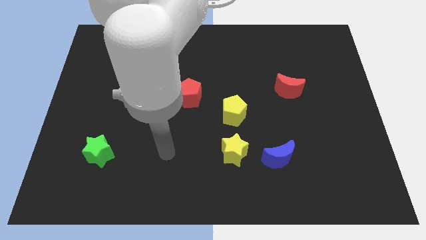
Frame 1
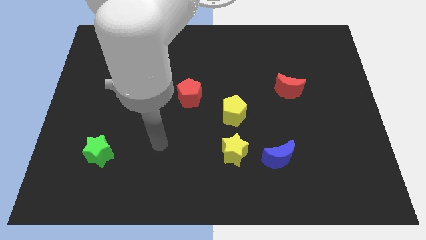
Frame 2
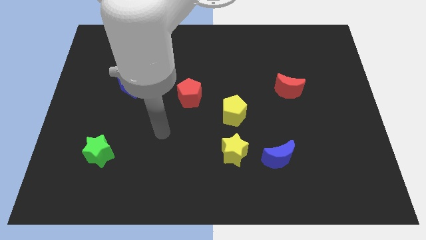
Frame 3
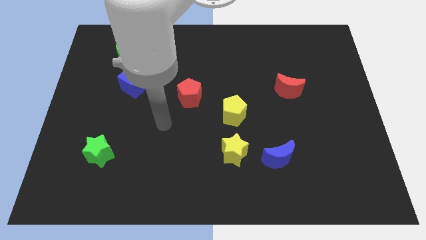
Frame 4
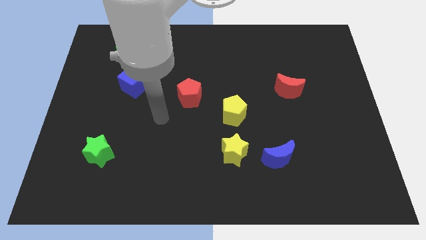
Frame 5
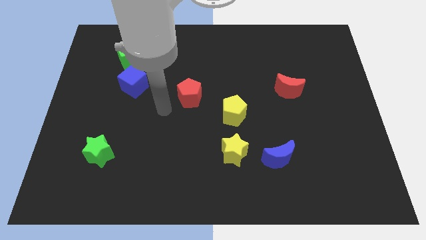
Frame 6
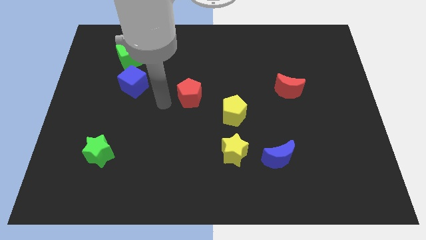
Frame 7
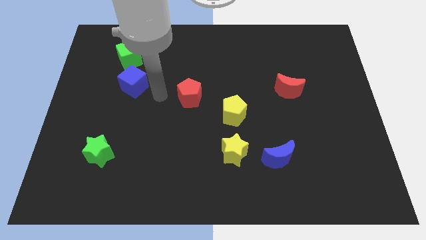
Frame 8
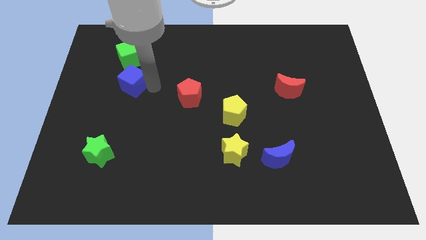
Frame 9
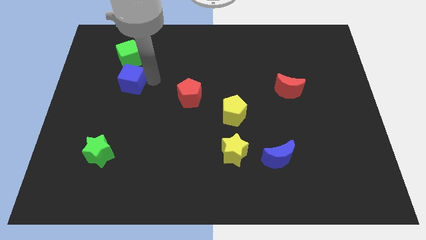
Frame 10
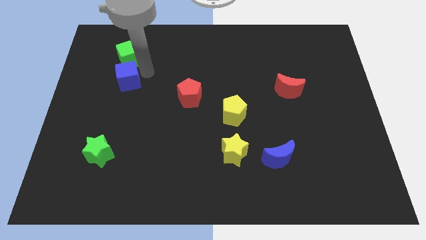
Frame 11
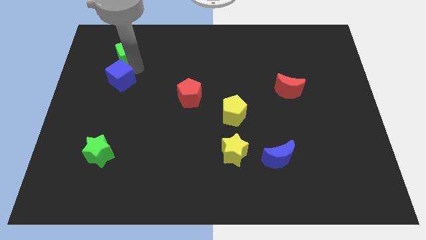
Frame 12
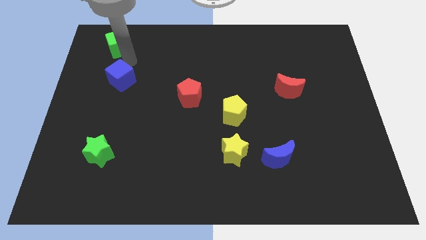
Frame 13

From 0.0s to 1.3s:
move the blue cube away from the green cube

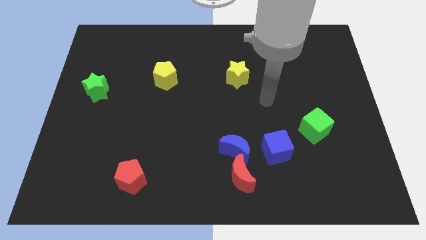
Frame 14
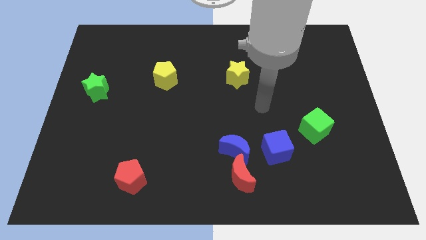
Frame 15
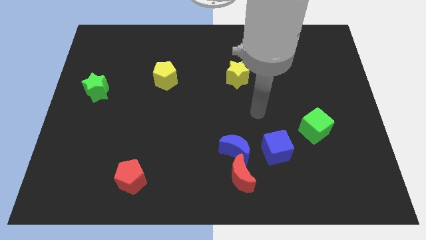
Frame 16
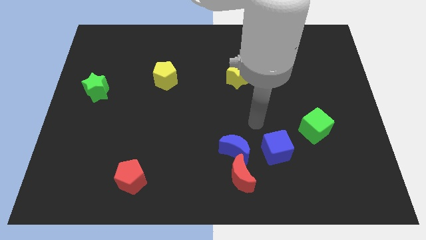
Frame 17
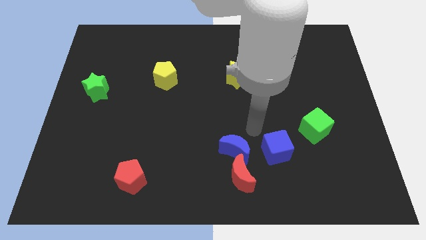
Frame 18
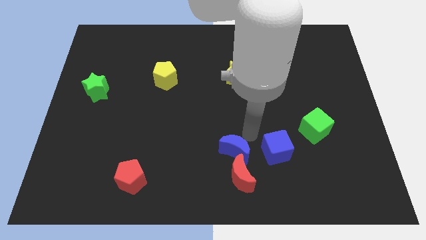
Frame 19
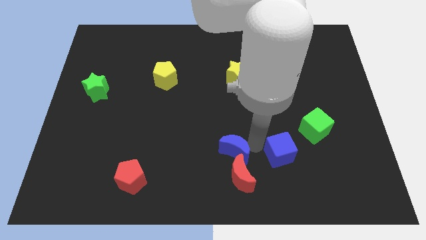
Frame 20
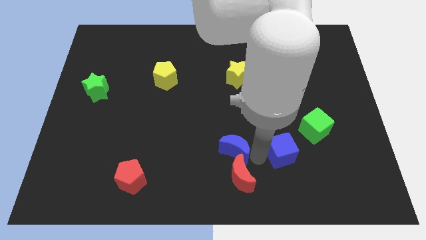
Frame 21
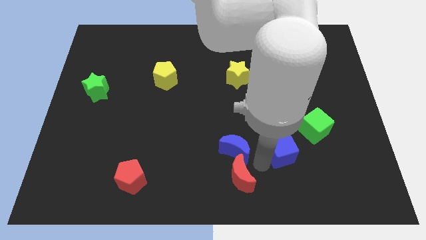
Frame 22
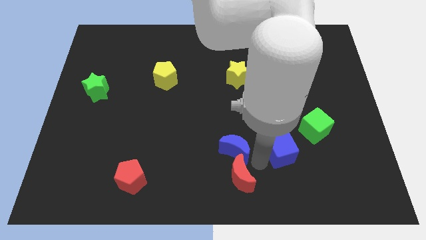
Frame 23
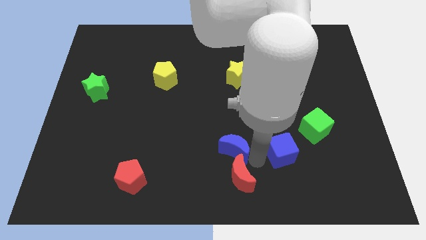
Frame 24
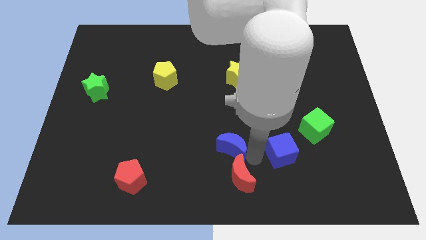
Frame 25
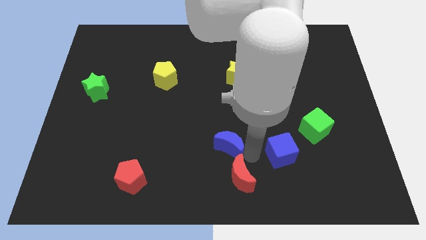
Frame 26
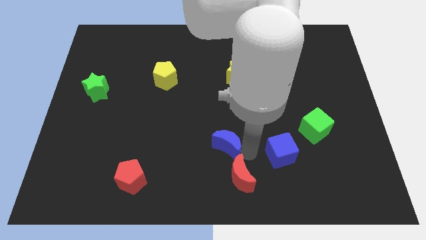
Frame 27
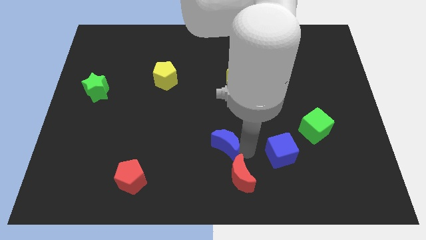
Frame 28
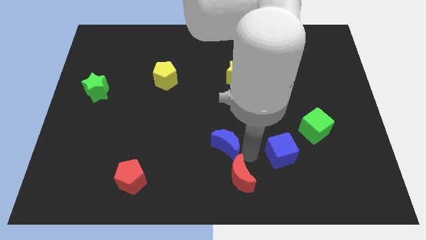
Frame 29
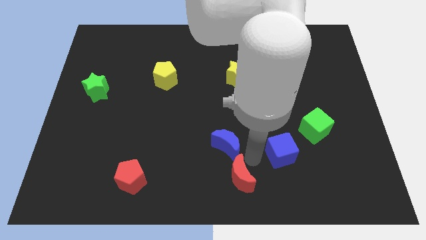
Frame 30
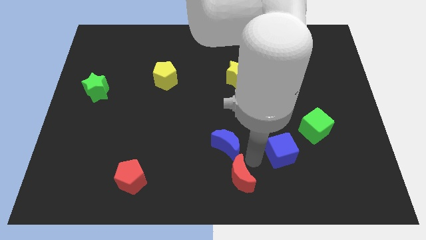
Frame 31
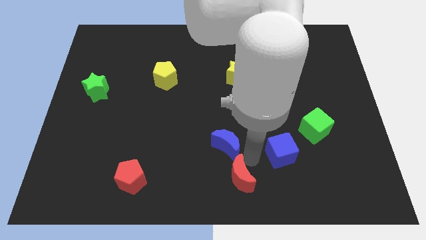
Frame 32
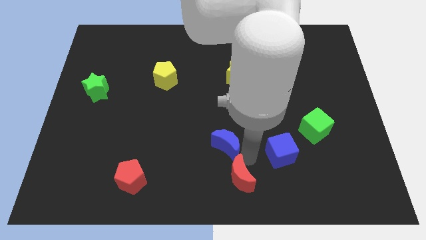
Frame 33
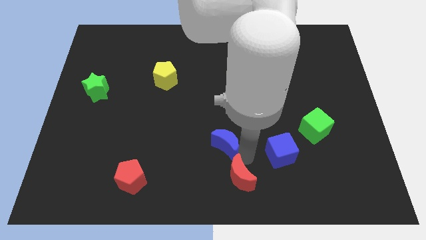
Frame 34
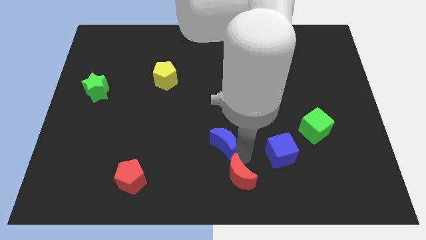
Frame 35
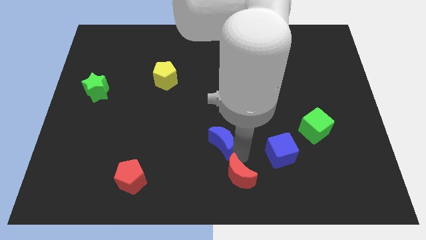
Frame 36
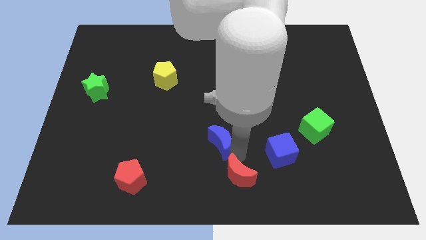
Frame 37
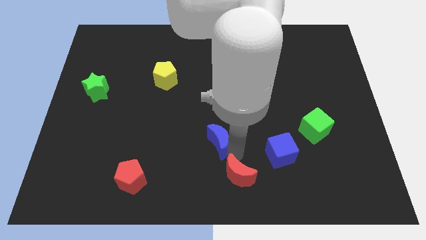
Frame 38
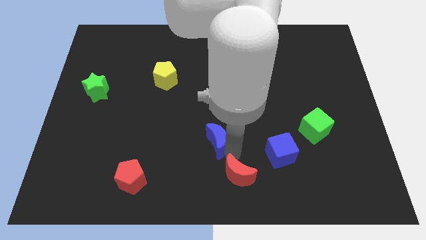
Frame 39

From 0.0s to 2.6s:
move the blue moon away from the red moon and blue cube

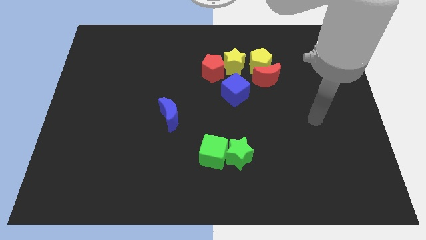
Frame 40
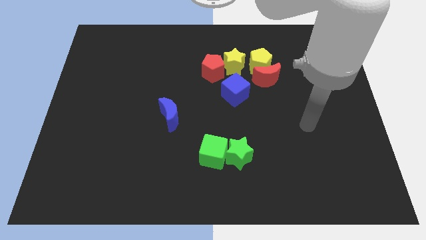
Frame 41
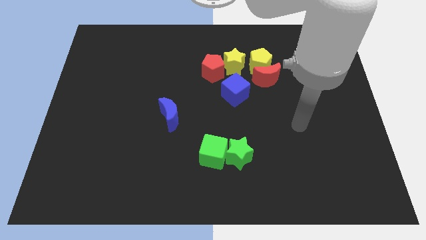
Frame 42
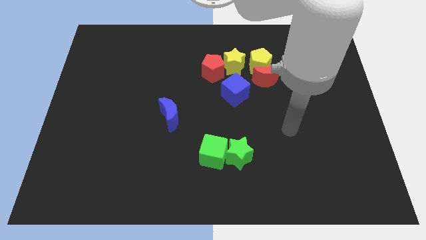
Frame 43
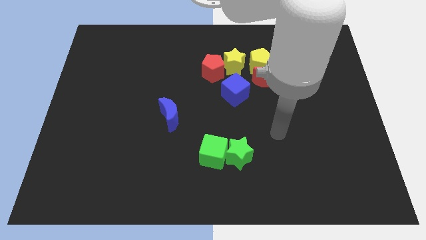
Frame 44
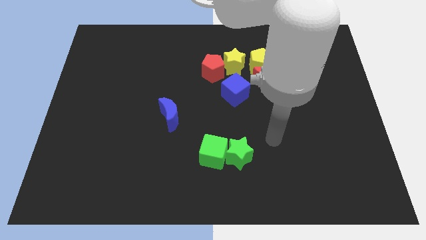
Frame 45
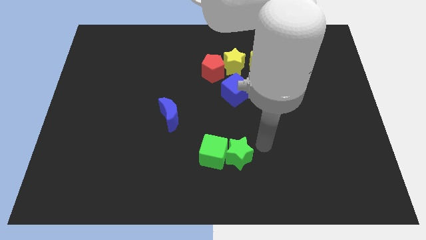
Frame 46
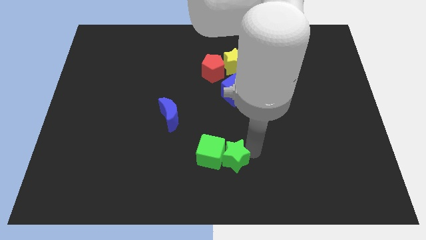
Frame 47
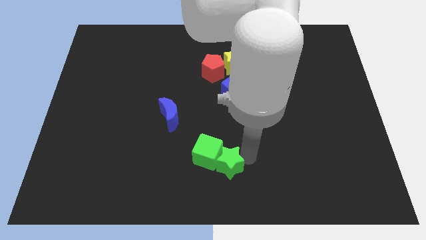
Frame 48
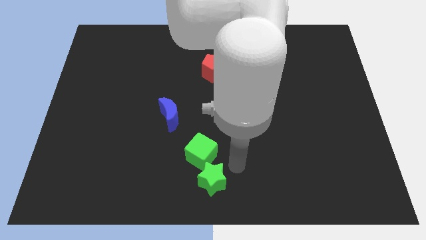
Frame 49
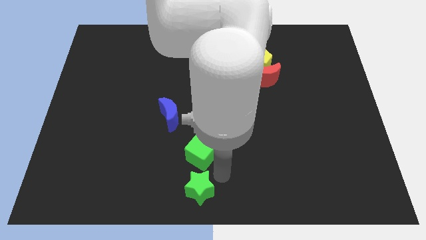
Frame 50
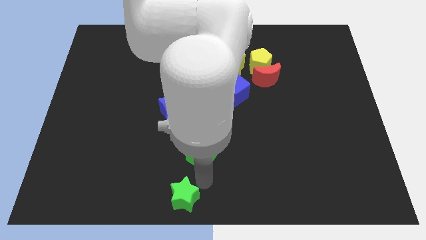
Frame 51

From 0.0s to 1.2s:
move the green cube away from the green star

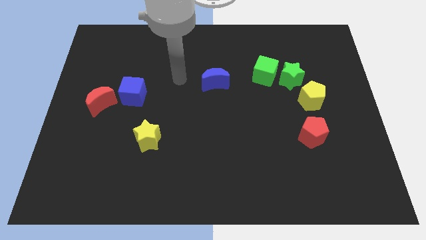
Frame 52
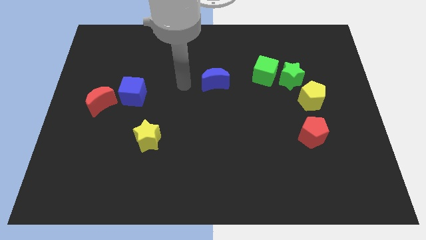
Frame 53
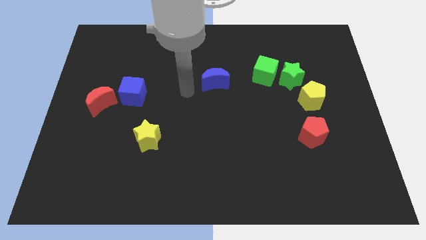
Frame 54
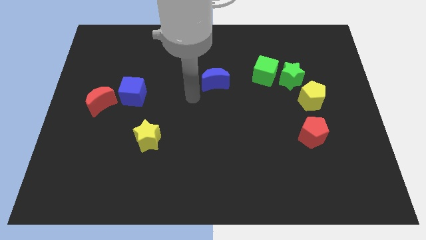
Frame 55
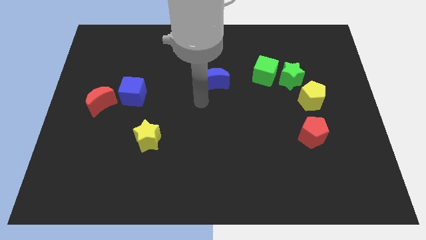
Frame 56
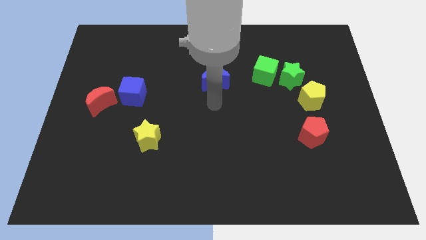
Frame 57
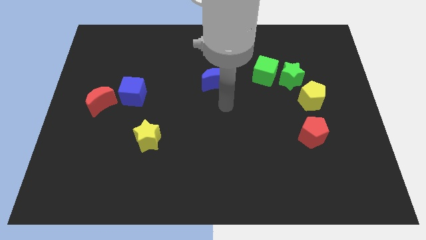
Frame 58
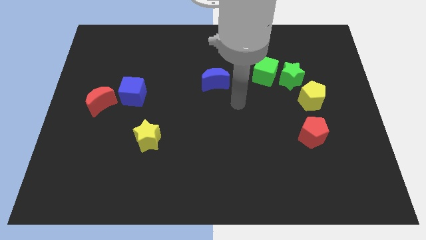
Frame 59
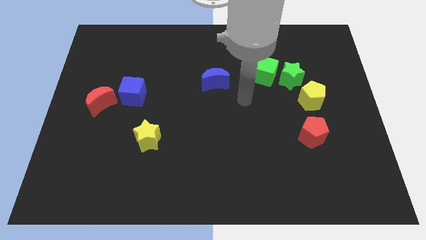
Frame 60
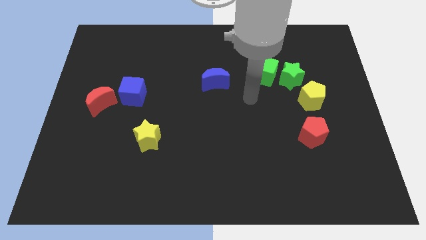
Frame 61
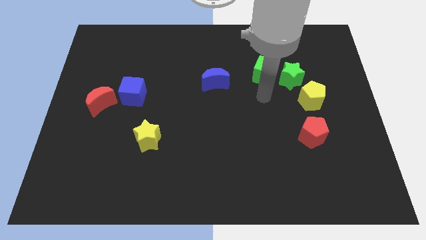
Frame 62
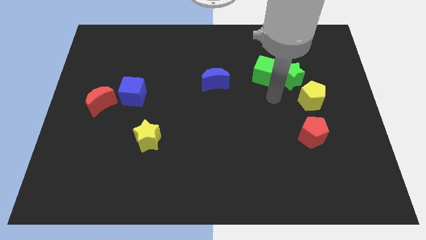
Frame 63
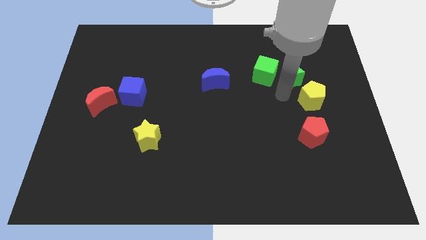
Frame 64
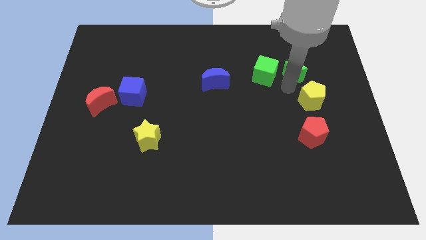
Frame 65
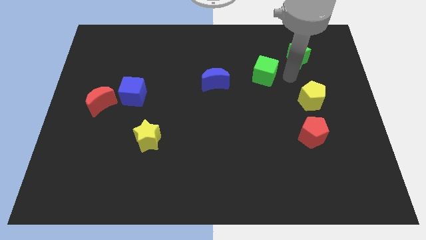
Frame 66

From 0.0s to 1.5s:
separate the green cube from the green star

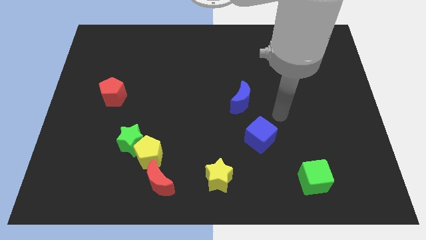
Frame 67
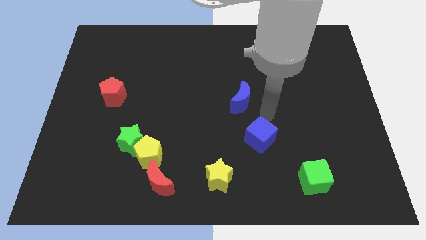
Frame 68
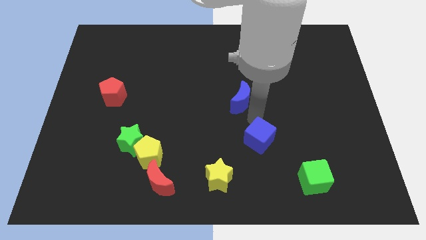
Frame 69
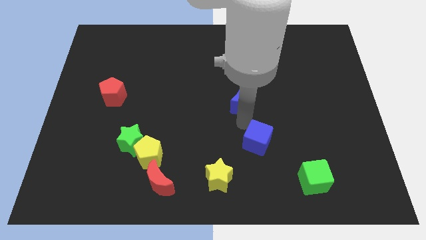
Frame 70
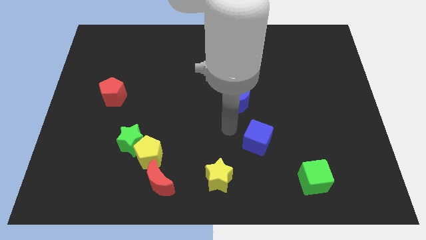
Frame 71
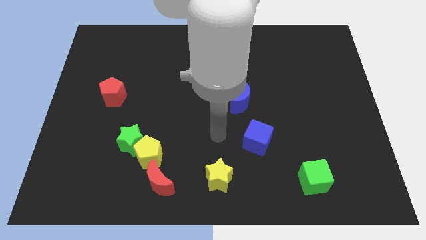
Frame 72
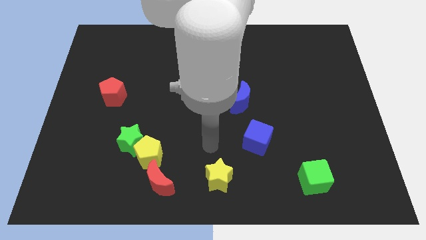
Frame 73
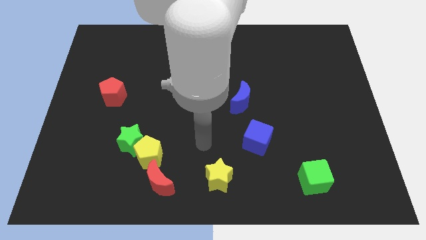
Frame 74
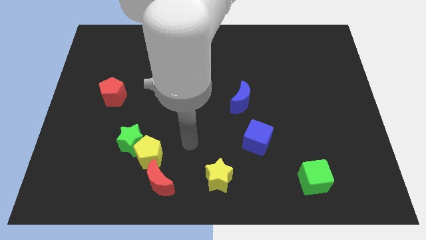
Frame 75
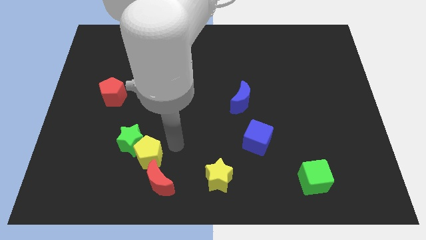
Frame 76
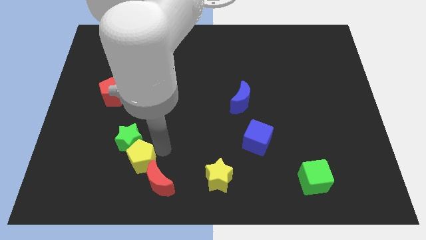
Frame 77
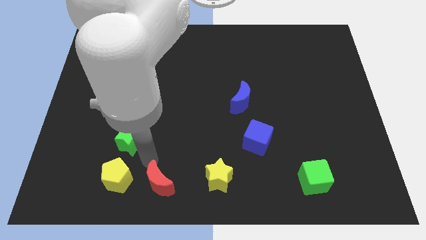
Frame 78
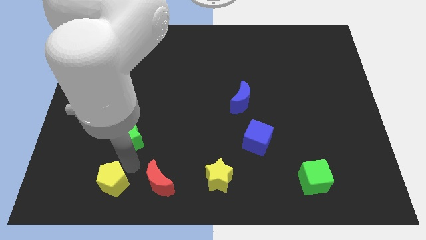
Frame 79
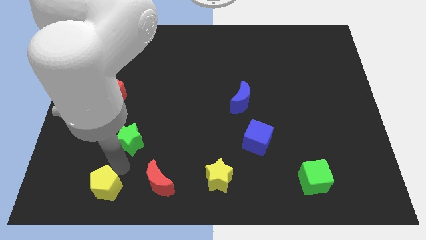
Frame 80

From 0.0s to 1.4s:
move the green star away from the yellow pentagon

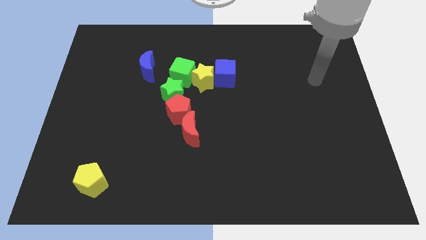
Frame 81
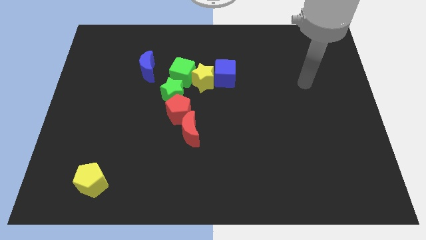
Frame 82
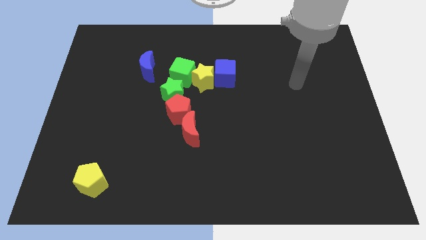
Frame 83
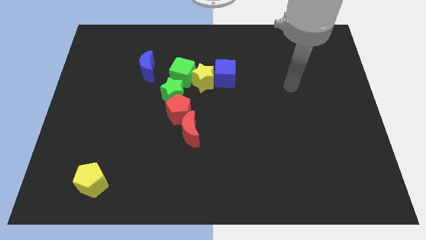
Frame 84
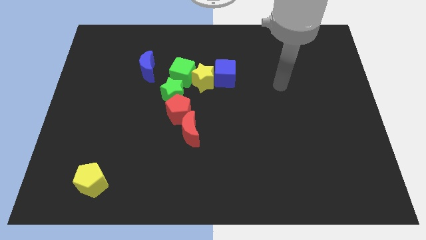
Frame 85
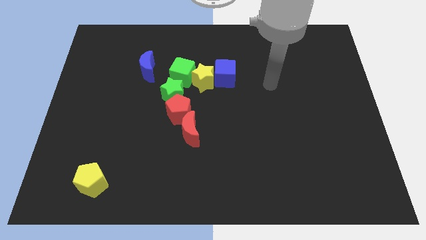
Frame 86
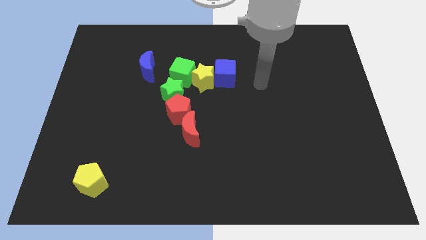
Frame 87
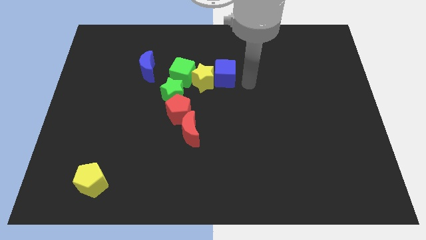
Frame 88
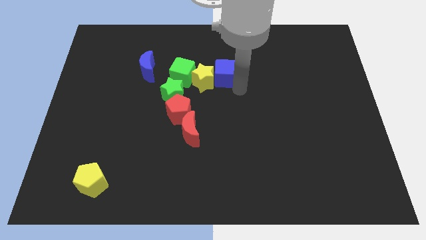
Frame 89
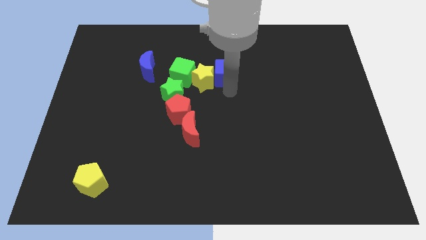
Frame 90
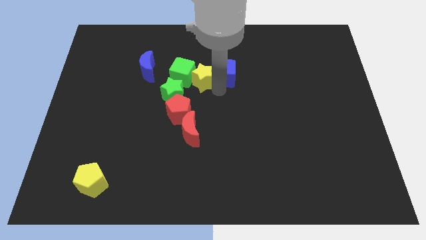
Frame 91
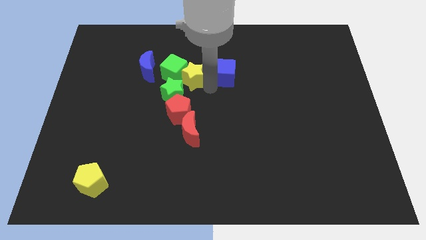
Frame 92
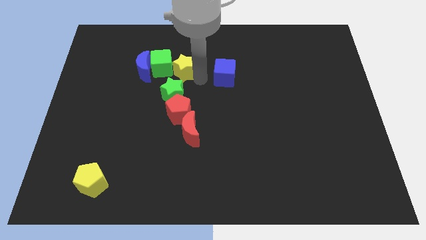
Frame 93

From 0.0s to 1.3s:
pull the blue cube apart from the yellow star
